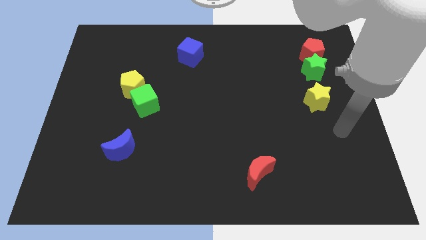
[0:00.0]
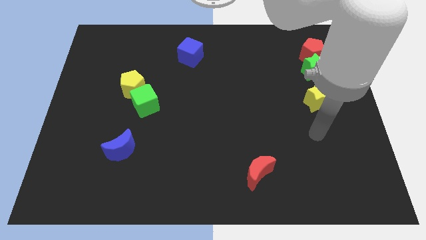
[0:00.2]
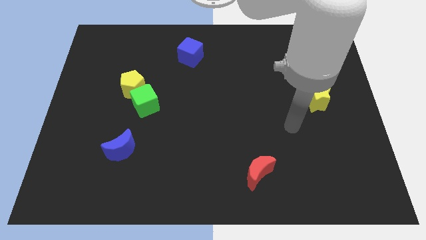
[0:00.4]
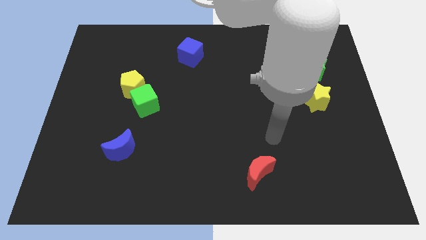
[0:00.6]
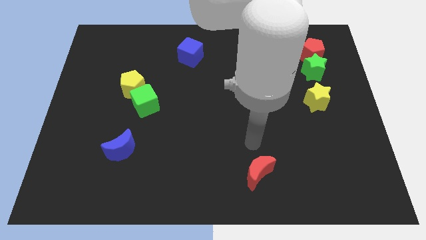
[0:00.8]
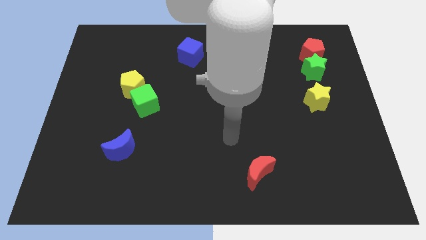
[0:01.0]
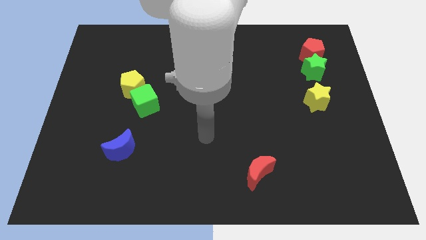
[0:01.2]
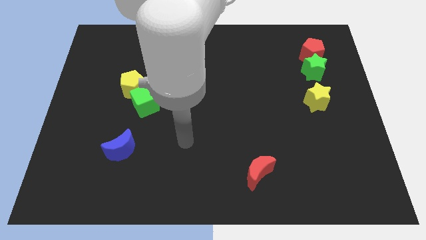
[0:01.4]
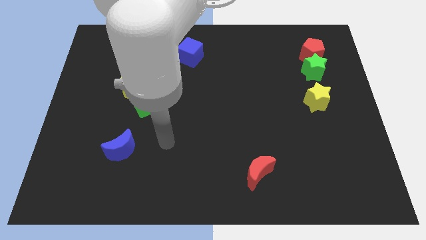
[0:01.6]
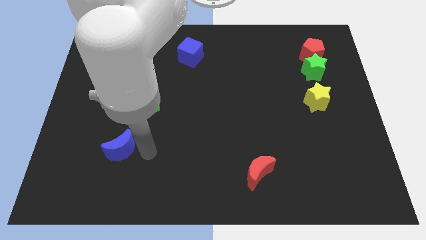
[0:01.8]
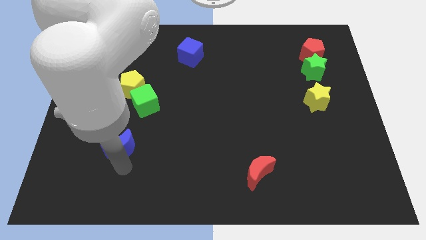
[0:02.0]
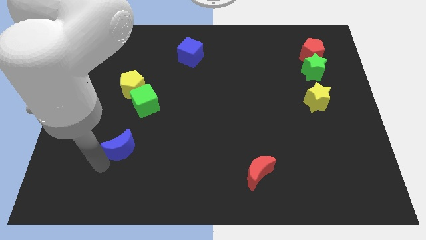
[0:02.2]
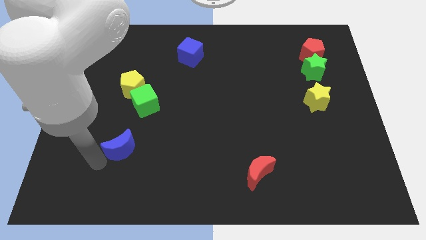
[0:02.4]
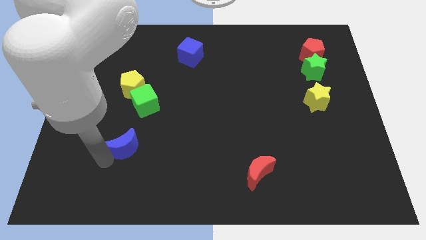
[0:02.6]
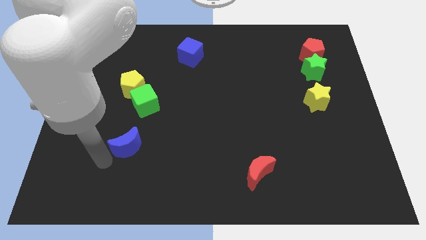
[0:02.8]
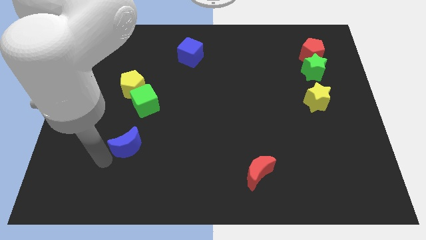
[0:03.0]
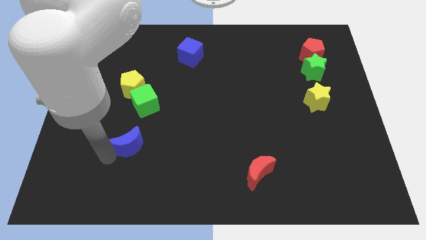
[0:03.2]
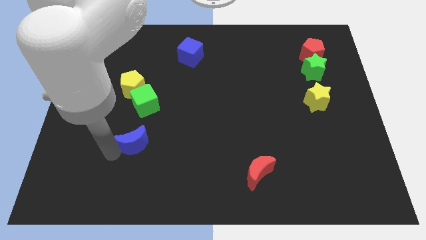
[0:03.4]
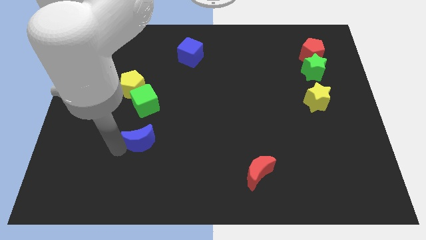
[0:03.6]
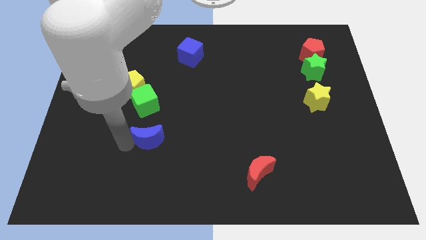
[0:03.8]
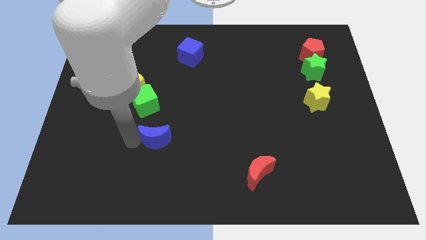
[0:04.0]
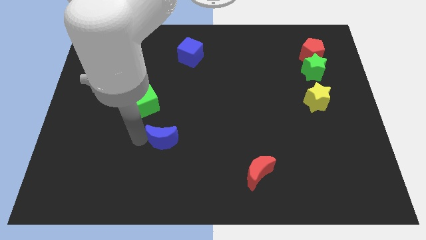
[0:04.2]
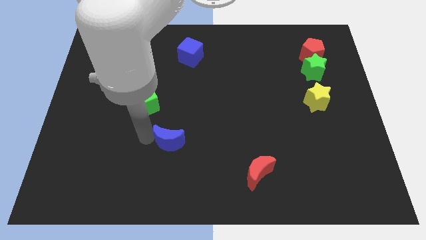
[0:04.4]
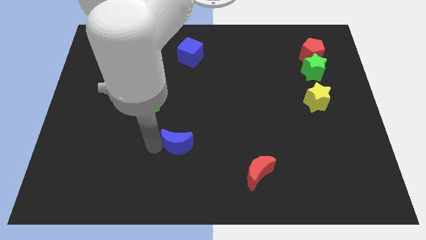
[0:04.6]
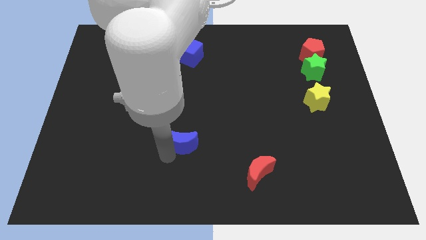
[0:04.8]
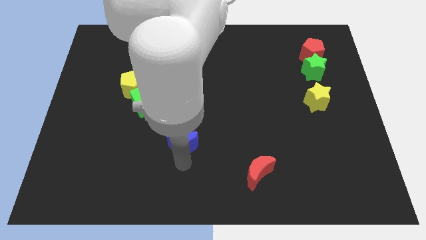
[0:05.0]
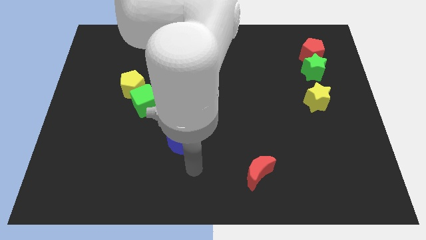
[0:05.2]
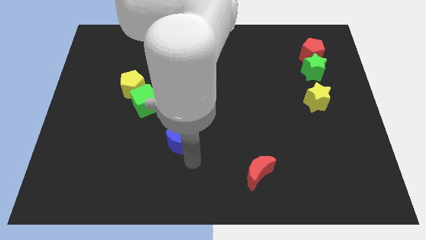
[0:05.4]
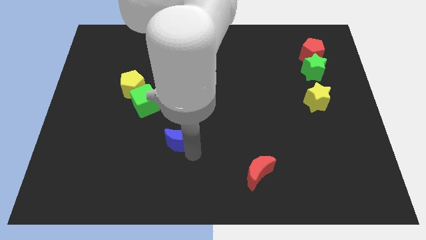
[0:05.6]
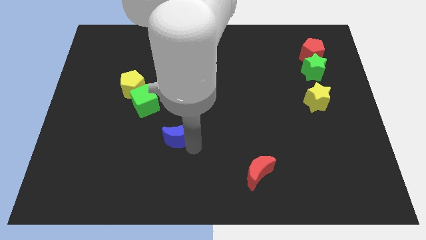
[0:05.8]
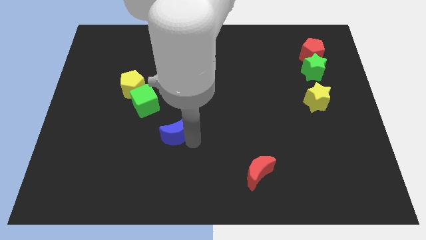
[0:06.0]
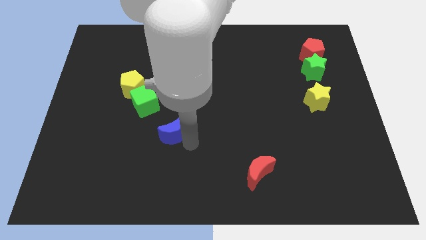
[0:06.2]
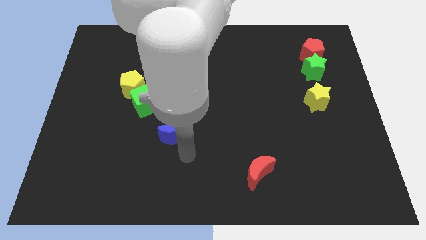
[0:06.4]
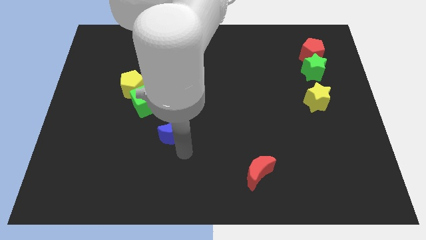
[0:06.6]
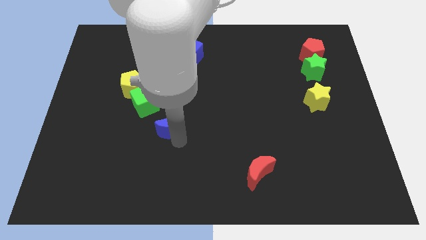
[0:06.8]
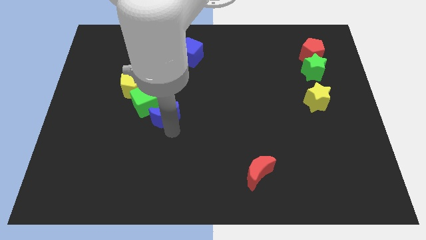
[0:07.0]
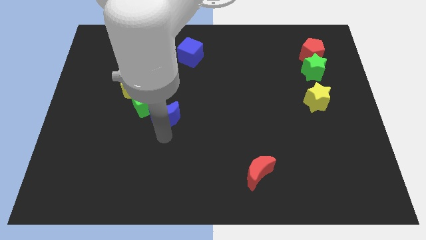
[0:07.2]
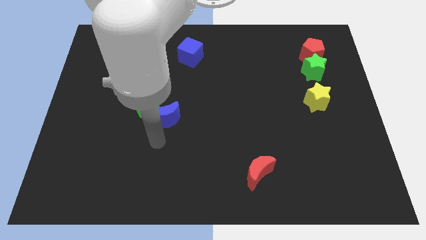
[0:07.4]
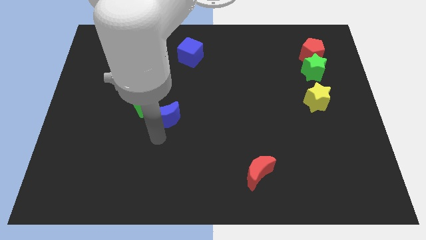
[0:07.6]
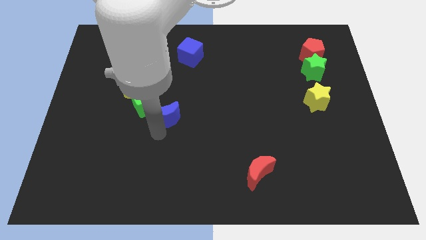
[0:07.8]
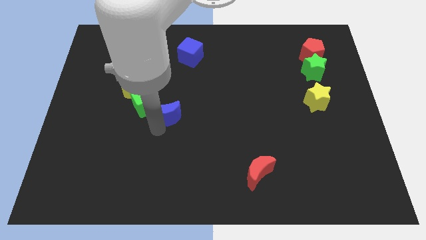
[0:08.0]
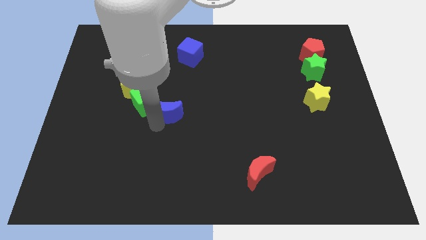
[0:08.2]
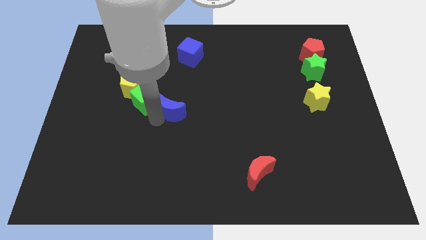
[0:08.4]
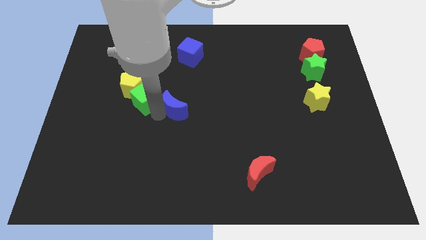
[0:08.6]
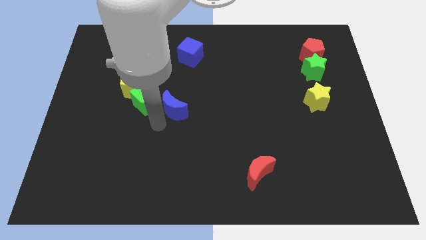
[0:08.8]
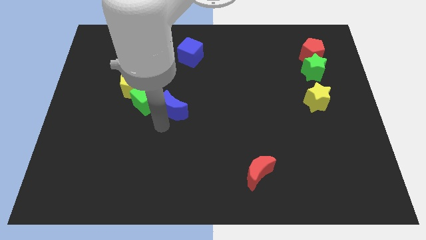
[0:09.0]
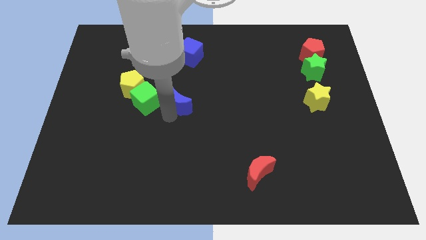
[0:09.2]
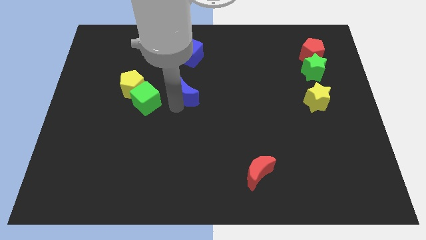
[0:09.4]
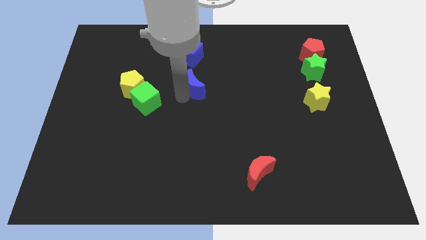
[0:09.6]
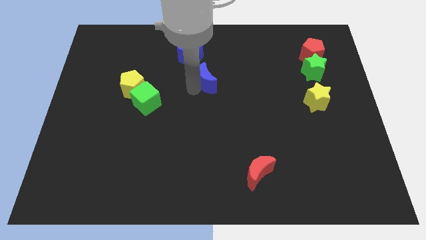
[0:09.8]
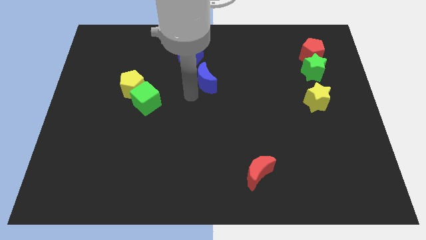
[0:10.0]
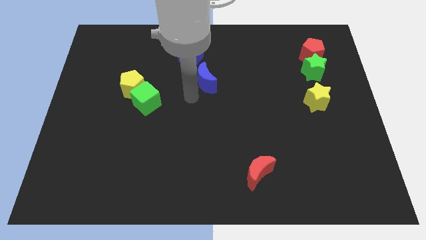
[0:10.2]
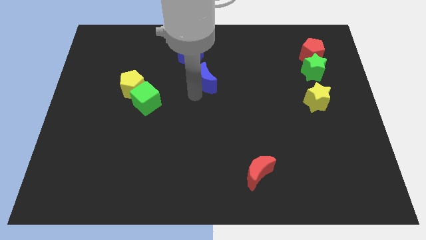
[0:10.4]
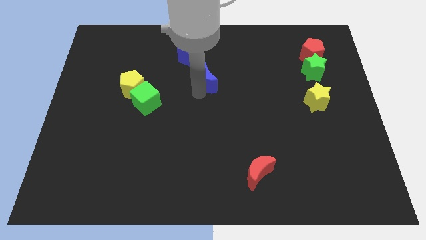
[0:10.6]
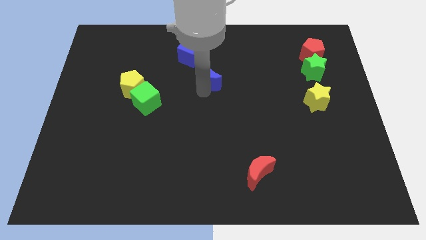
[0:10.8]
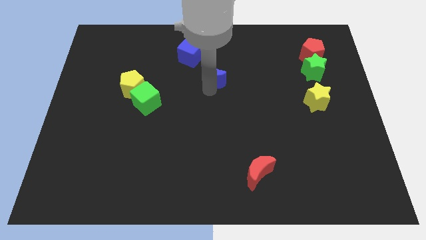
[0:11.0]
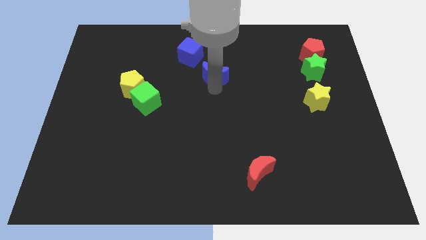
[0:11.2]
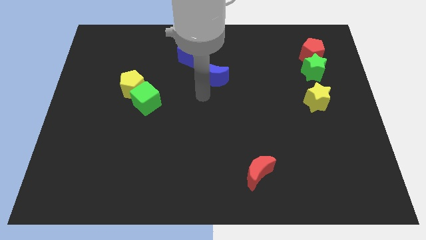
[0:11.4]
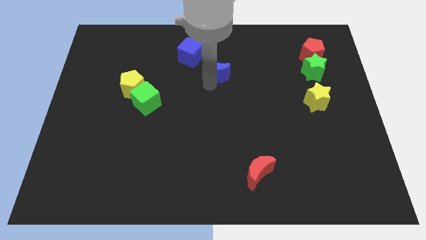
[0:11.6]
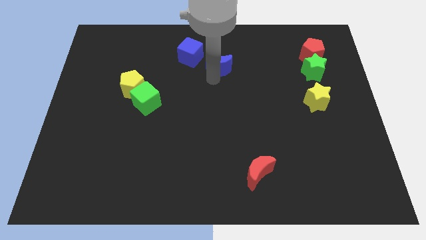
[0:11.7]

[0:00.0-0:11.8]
slide the blue moon right of the blue cube

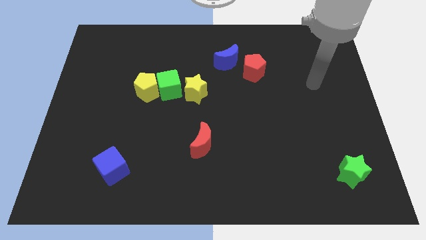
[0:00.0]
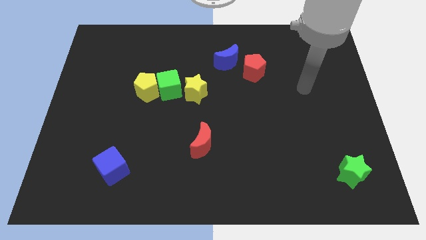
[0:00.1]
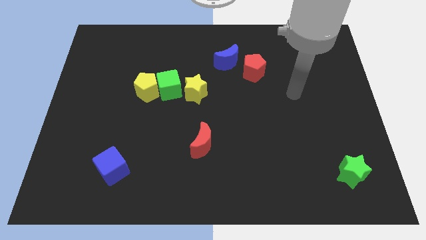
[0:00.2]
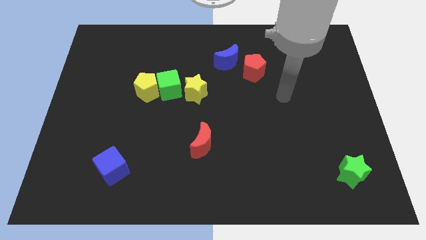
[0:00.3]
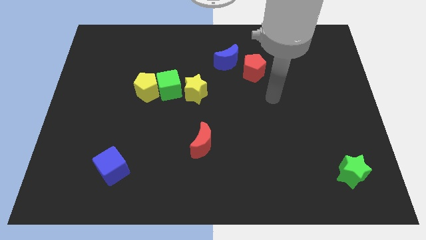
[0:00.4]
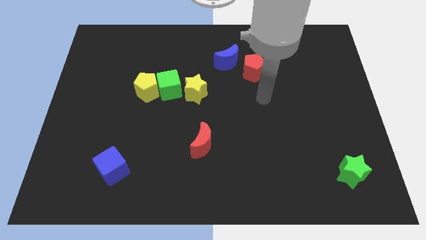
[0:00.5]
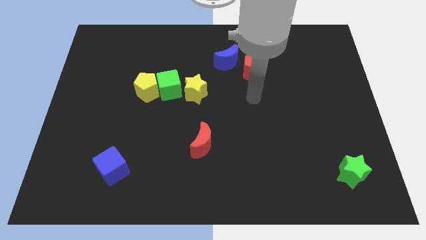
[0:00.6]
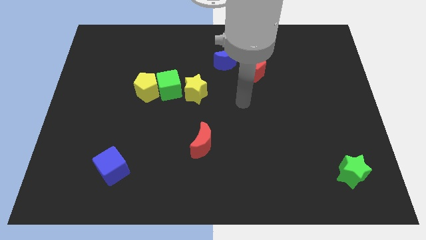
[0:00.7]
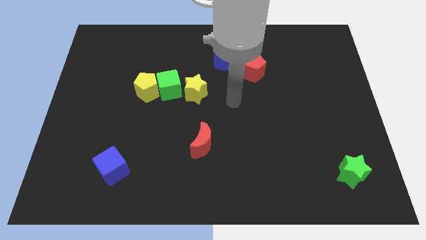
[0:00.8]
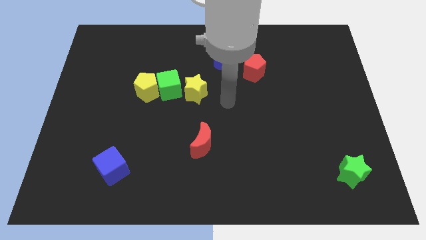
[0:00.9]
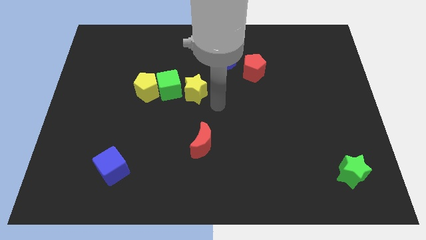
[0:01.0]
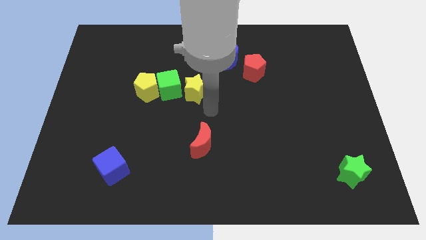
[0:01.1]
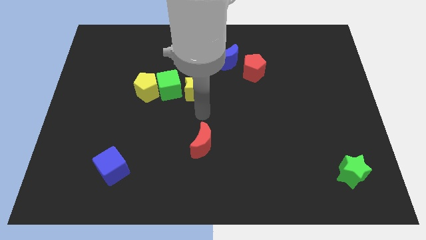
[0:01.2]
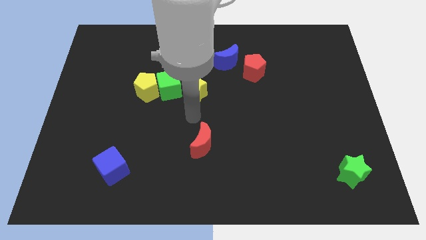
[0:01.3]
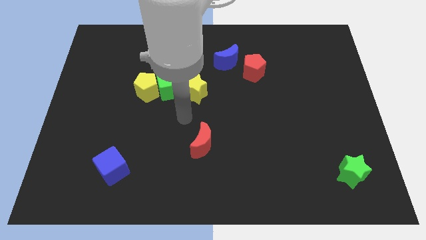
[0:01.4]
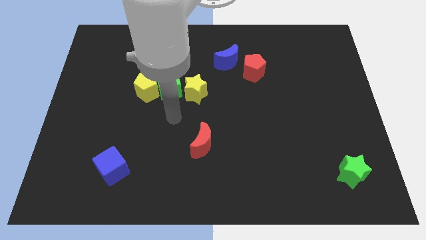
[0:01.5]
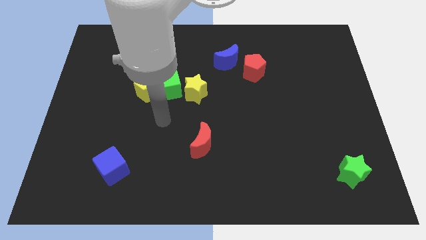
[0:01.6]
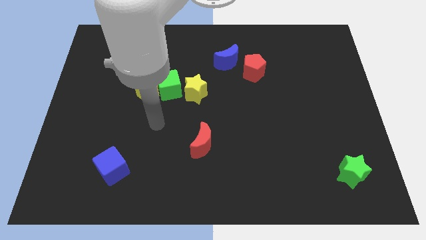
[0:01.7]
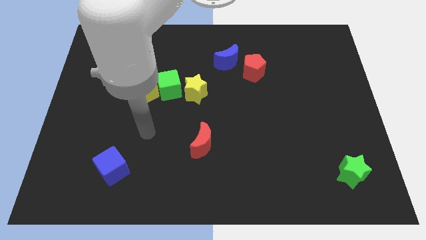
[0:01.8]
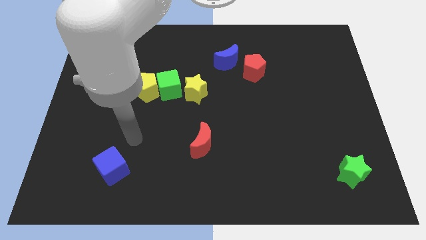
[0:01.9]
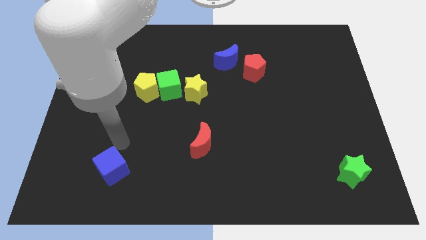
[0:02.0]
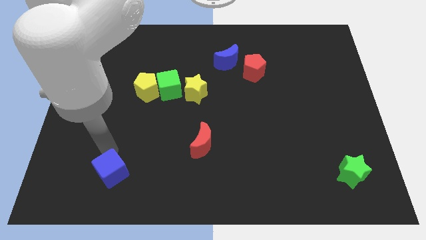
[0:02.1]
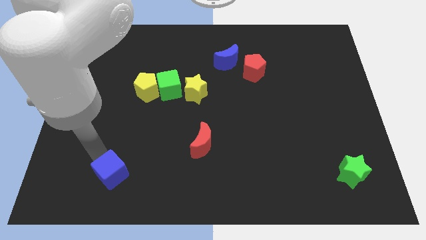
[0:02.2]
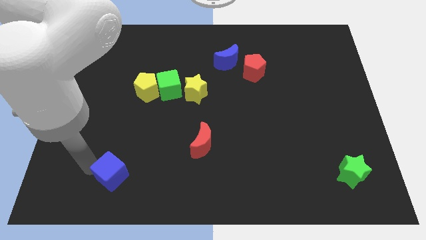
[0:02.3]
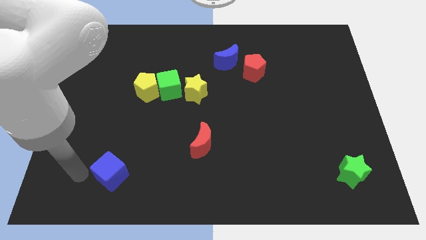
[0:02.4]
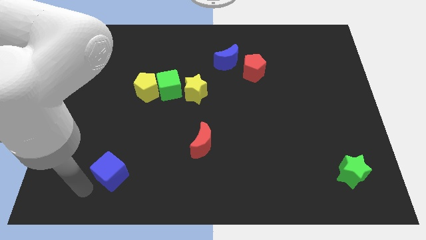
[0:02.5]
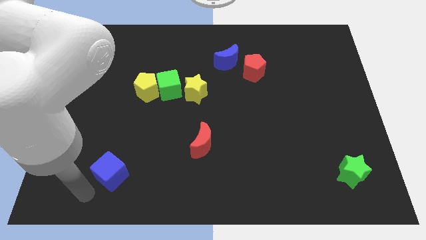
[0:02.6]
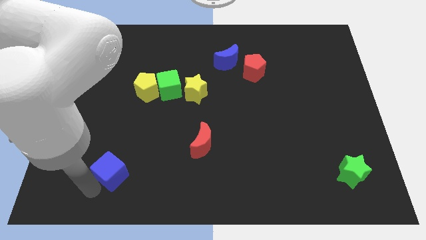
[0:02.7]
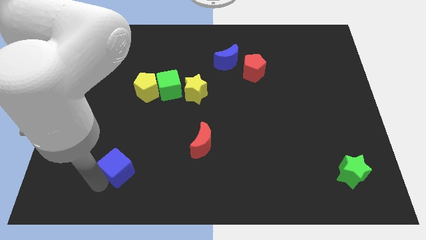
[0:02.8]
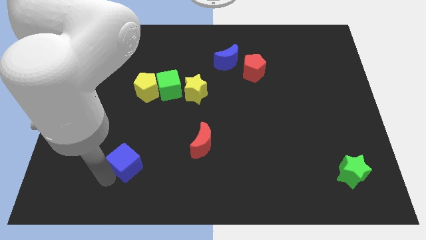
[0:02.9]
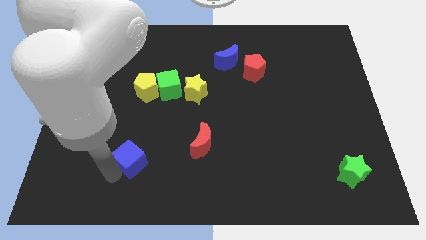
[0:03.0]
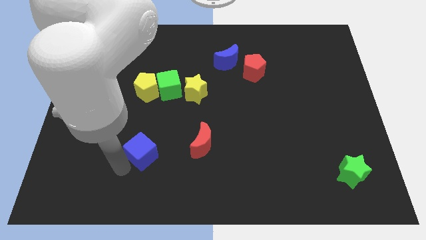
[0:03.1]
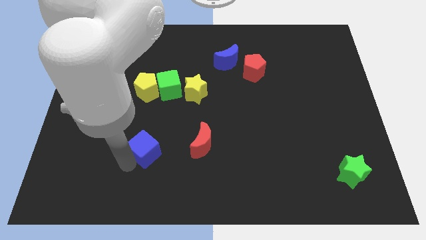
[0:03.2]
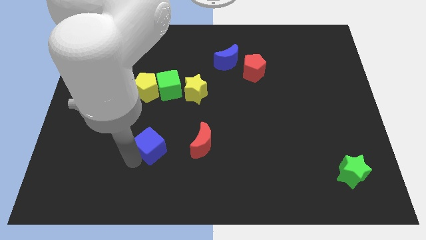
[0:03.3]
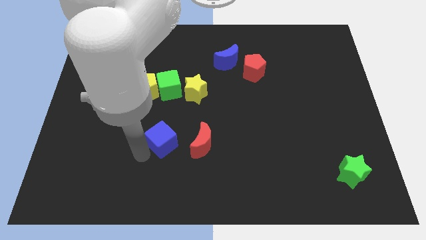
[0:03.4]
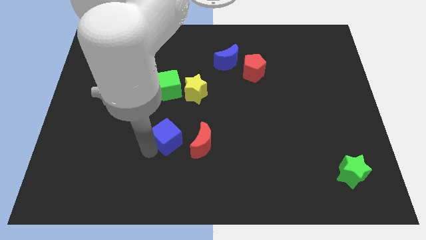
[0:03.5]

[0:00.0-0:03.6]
push the blue cube to the top left of the red moon
